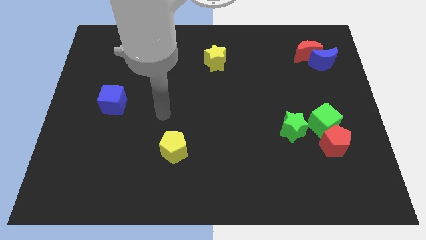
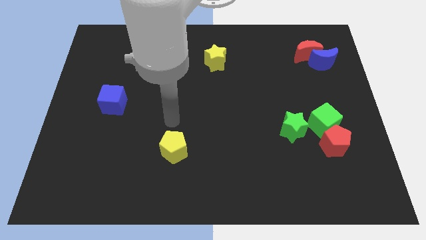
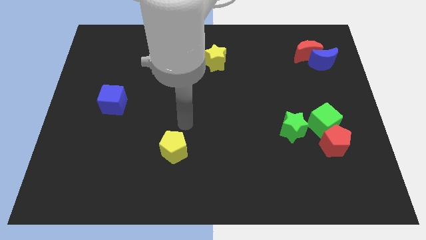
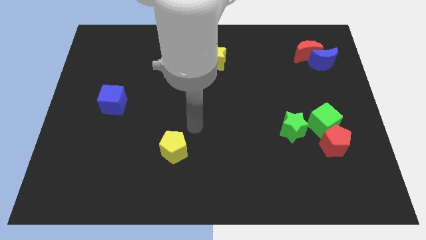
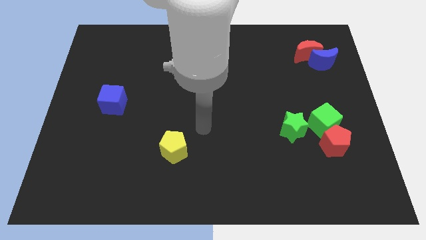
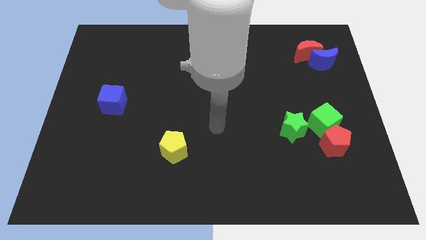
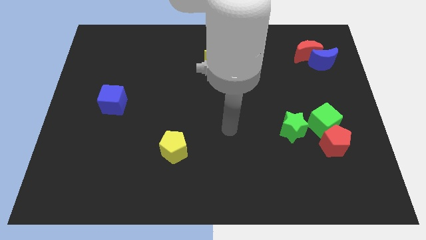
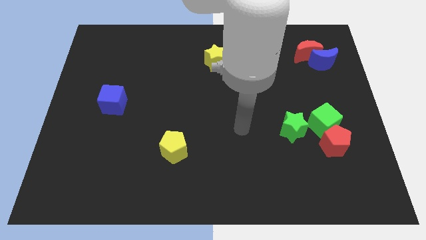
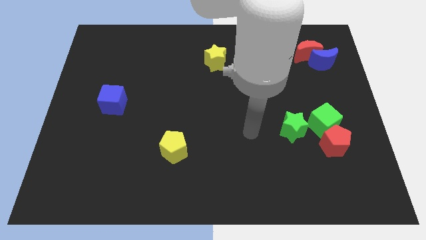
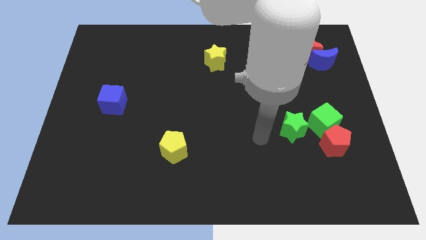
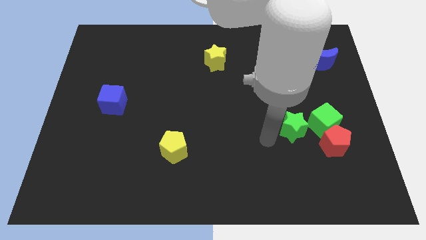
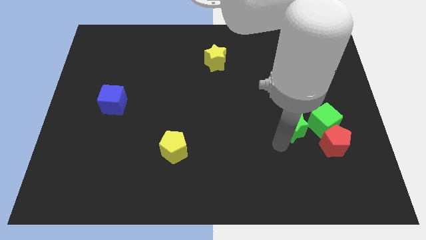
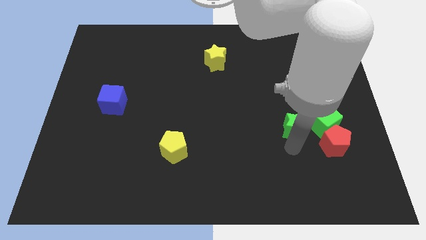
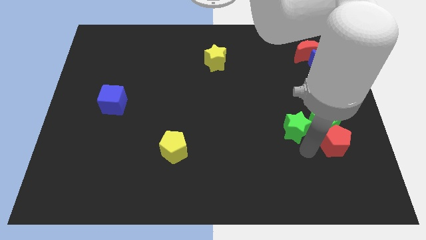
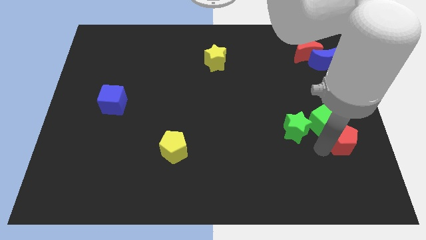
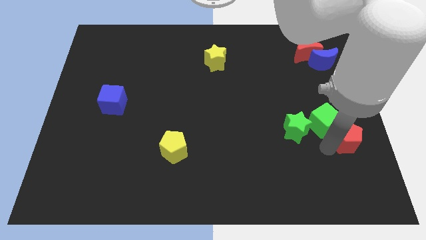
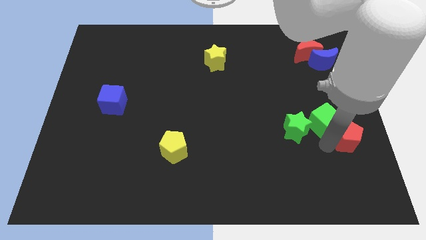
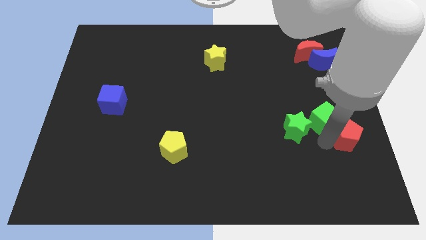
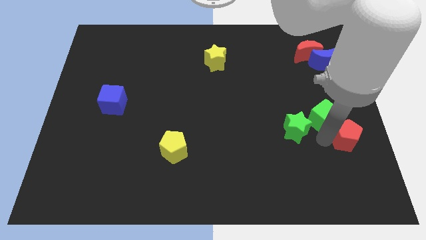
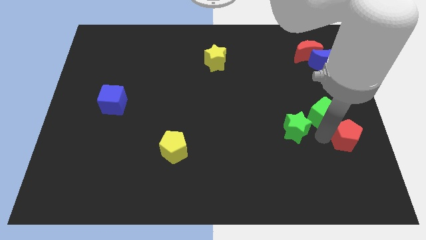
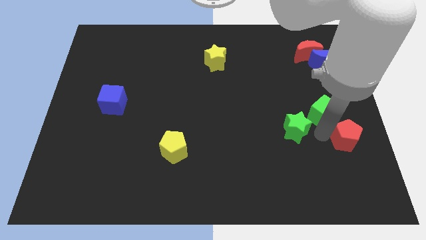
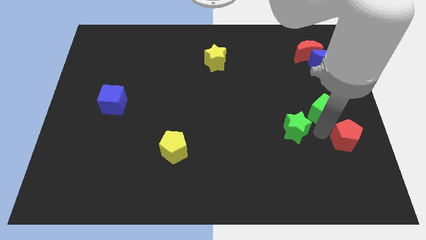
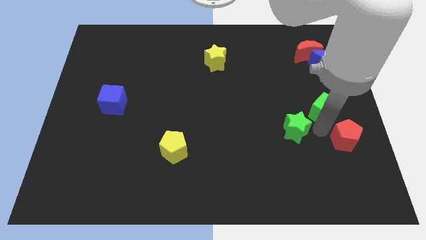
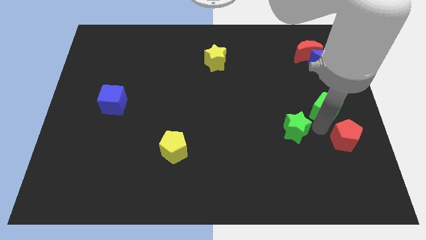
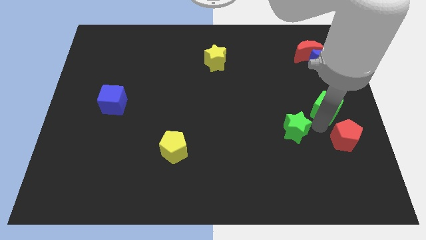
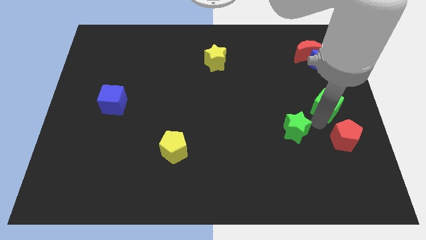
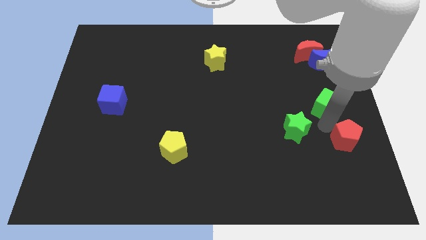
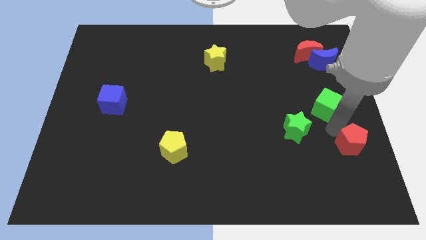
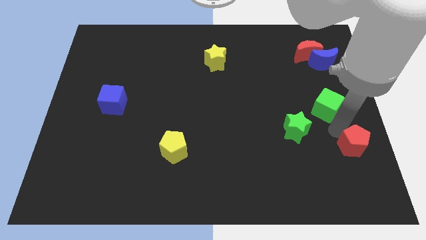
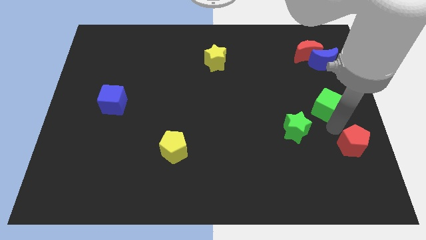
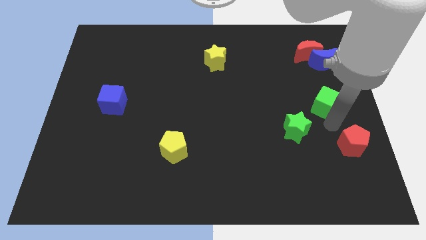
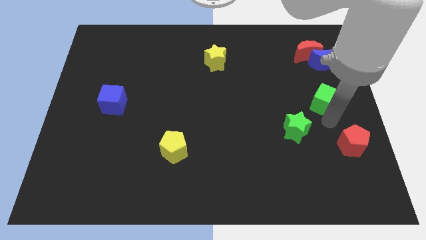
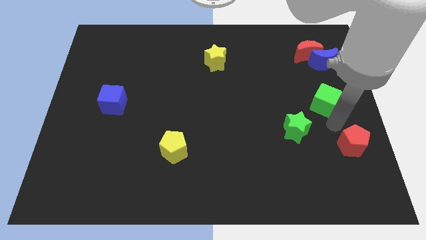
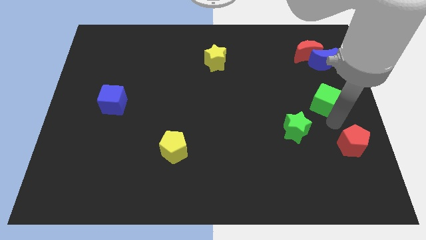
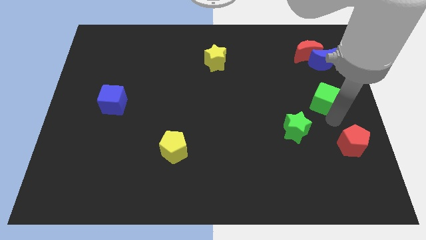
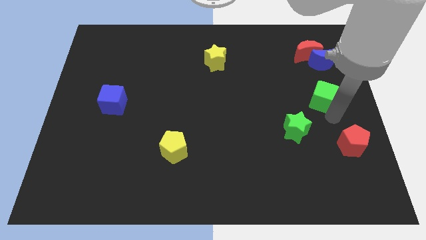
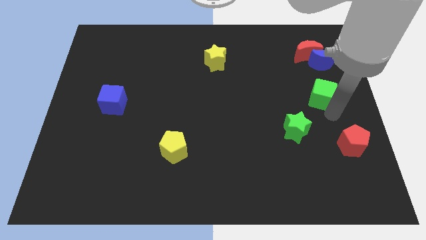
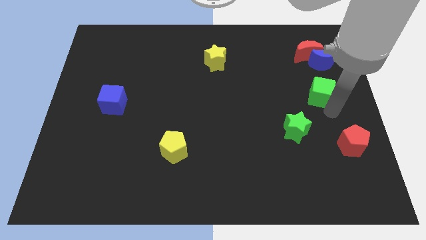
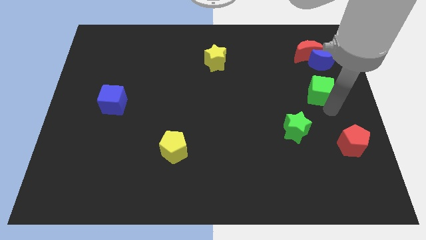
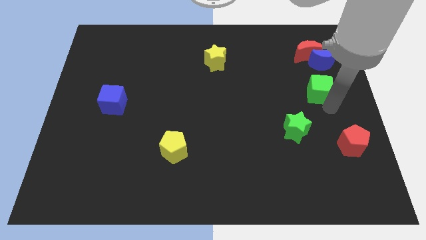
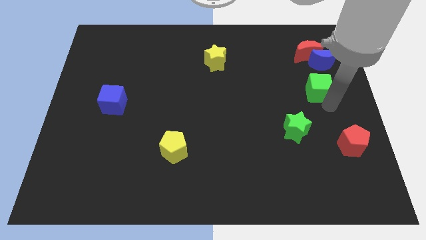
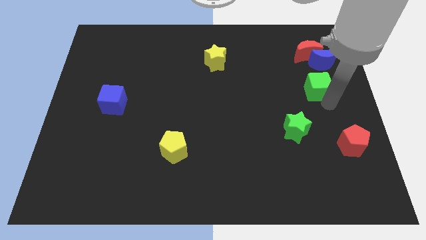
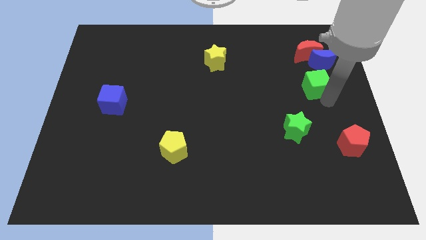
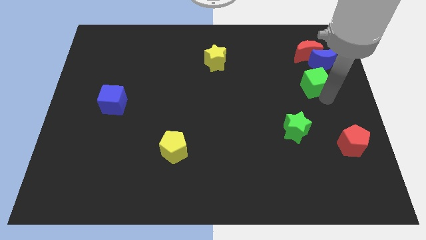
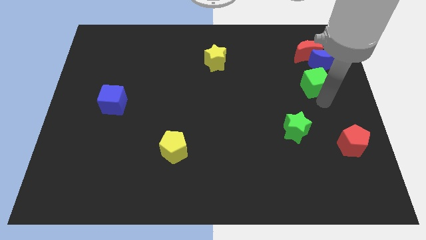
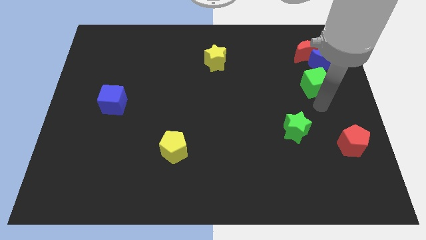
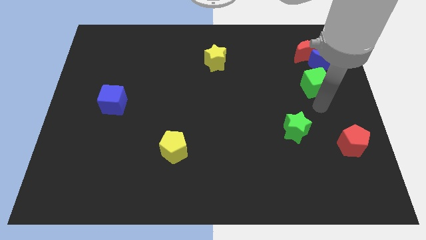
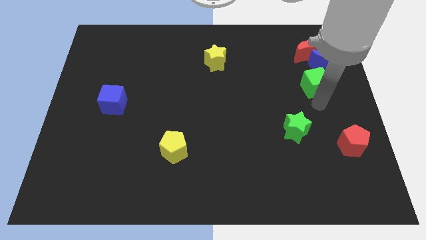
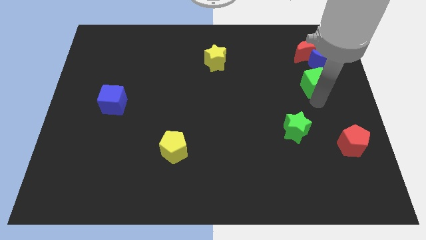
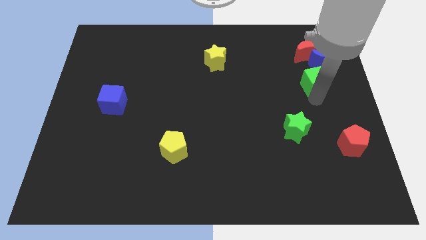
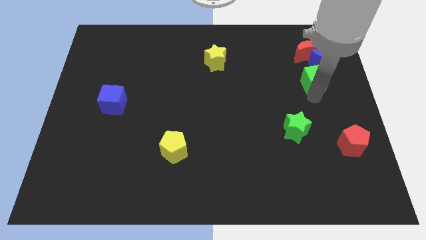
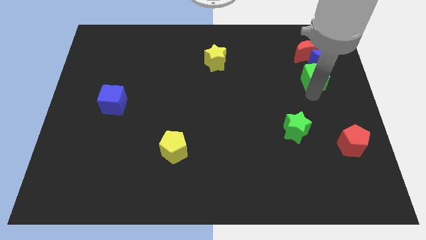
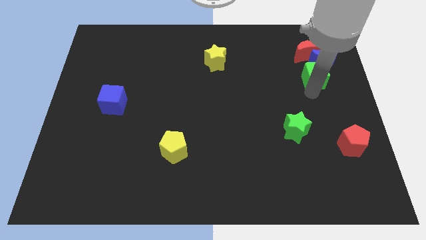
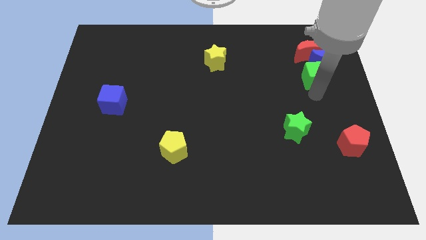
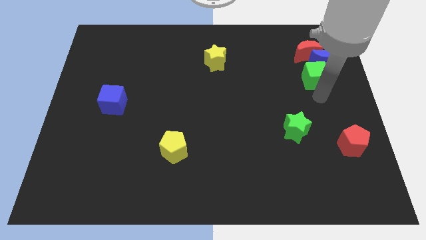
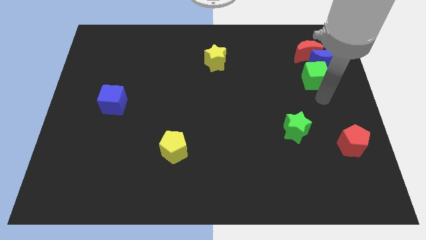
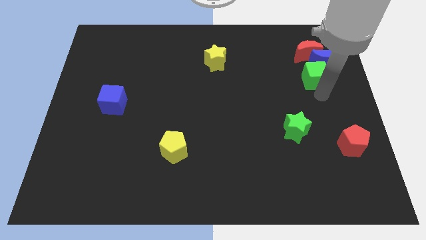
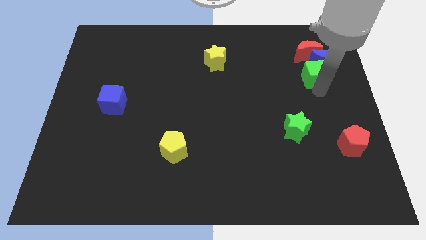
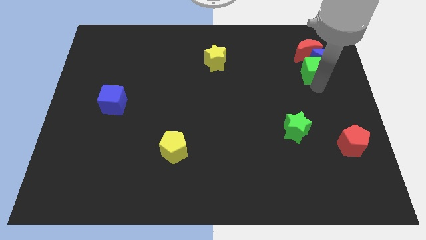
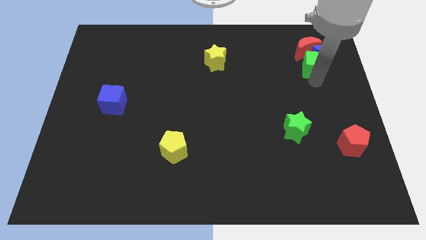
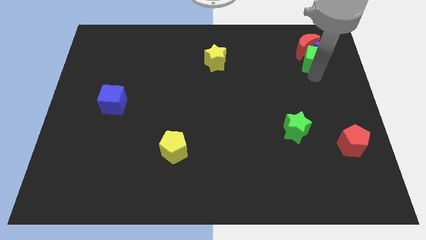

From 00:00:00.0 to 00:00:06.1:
slide the green cube to the red moon

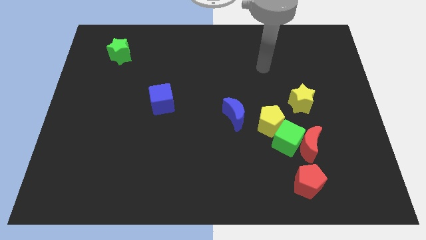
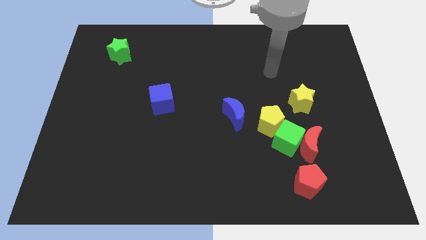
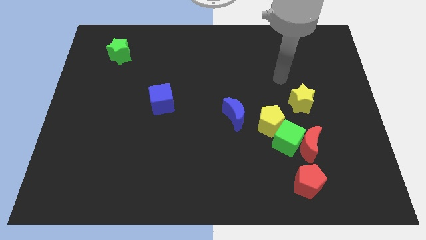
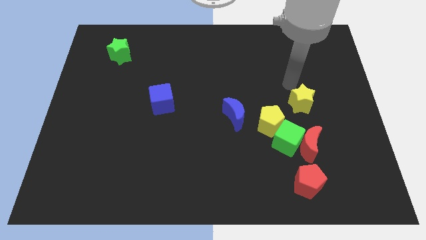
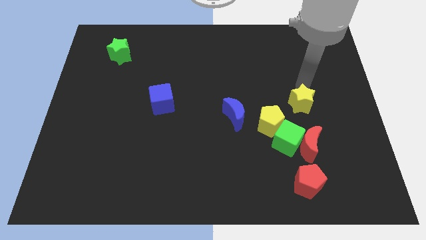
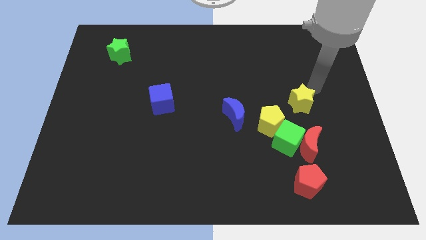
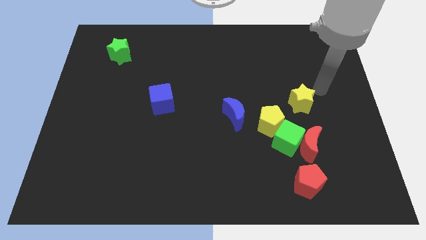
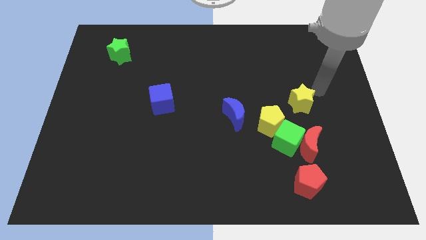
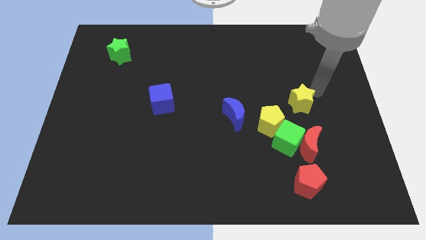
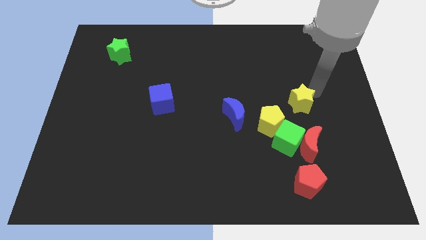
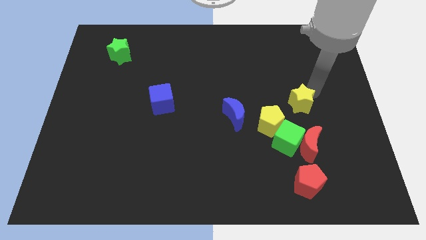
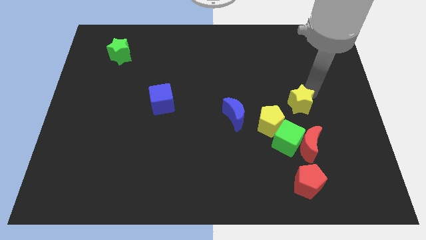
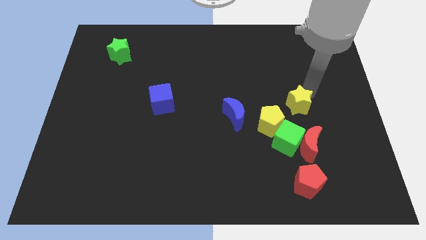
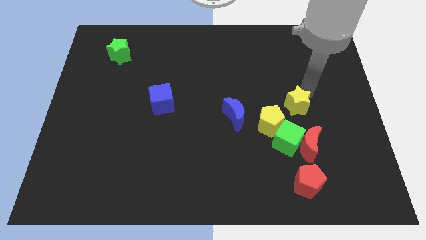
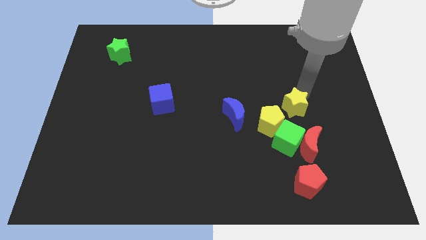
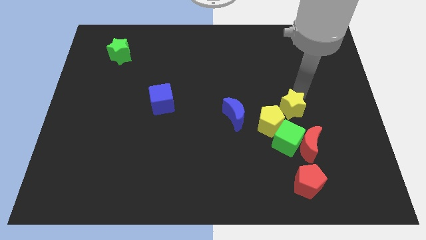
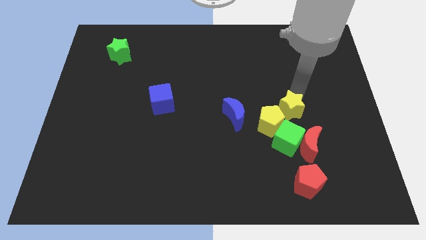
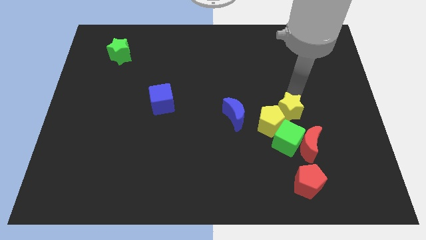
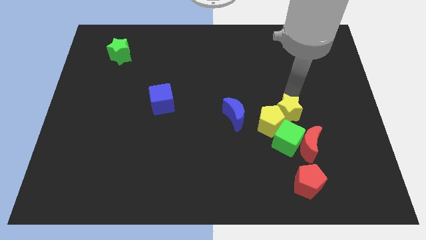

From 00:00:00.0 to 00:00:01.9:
push the yellow star towards the yellow pentagon
